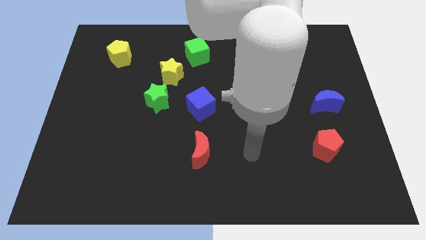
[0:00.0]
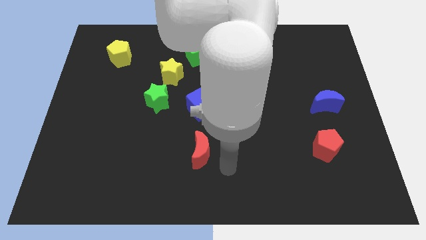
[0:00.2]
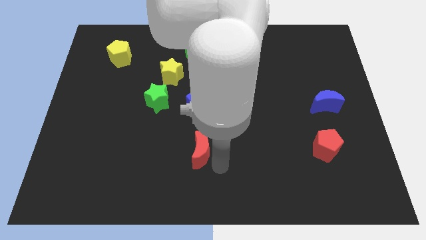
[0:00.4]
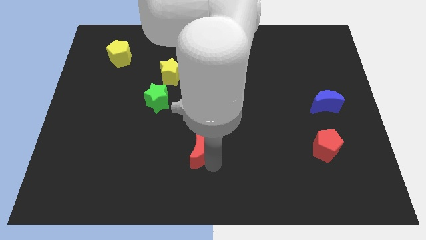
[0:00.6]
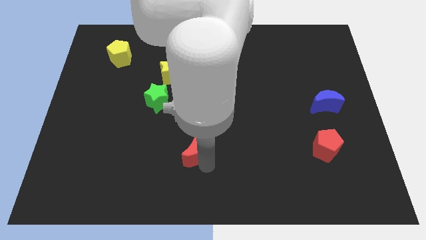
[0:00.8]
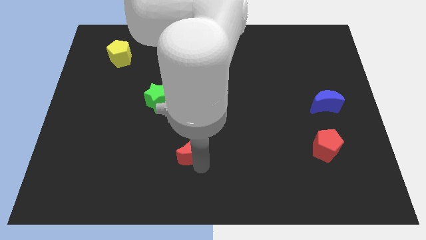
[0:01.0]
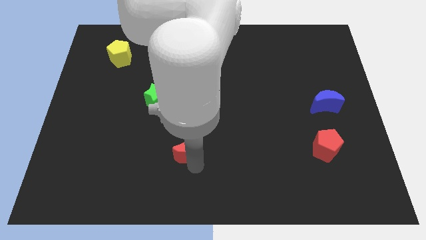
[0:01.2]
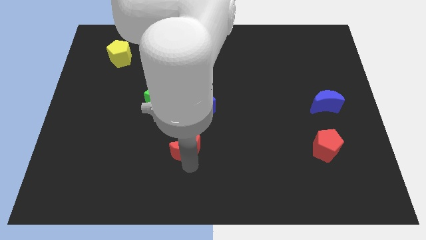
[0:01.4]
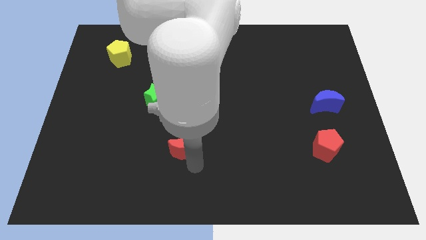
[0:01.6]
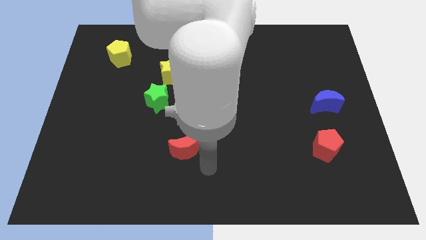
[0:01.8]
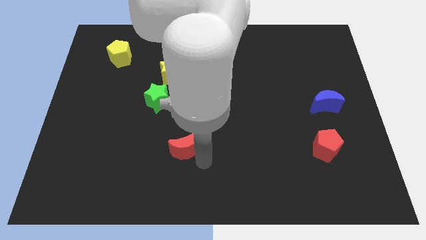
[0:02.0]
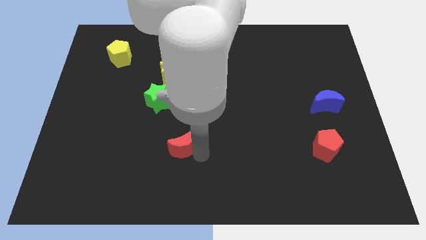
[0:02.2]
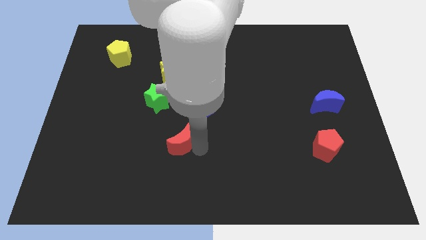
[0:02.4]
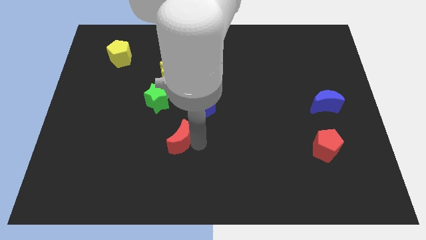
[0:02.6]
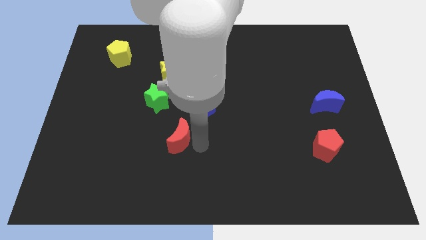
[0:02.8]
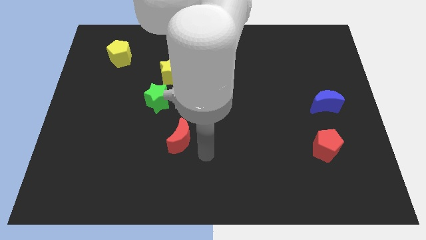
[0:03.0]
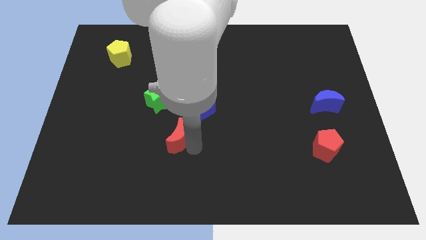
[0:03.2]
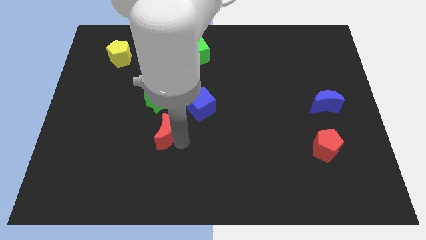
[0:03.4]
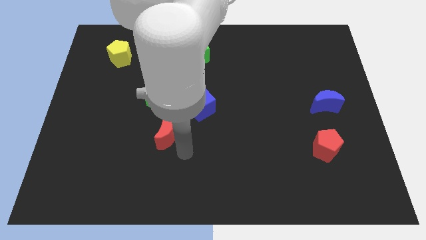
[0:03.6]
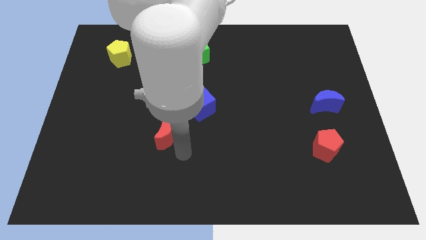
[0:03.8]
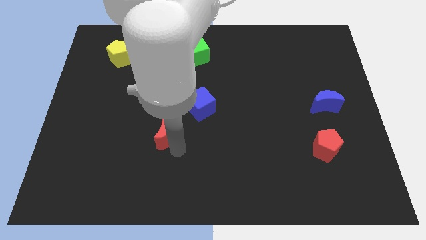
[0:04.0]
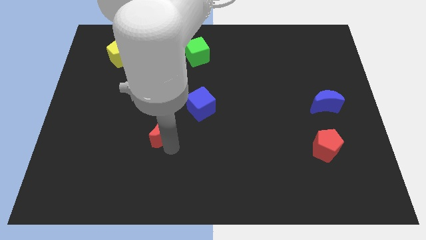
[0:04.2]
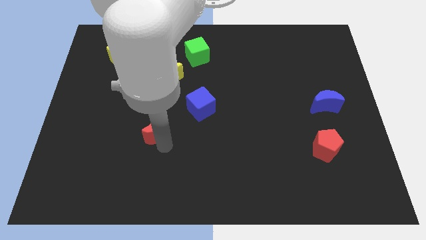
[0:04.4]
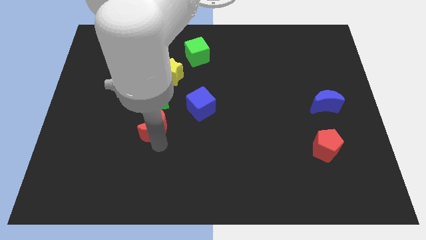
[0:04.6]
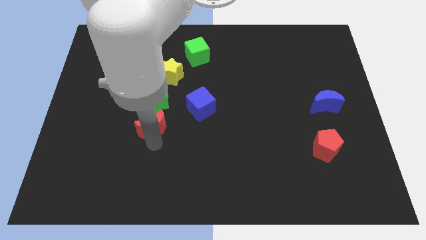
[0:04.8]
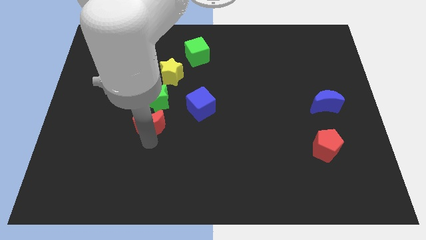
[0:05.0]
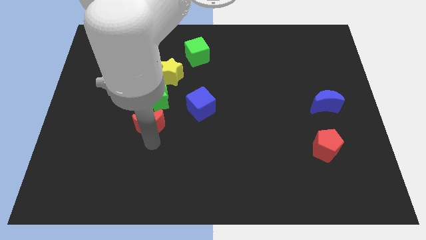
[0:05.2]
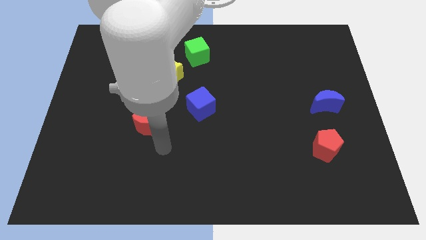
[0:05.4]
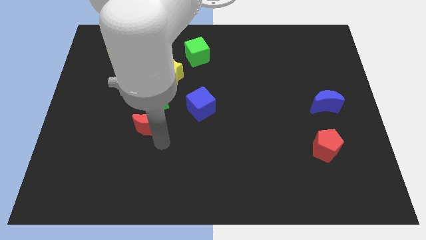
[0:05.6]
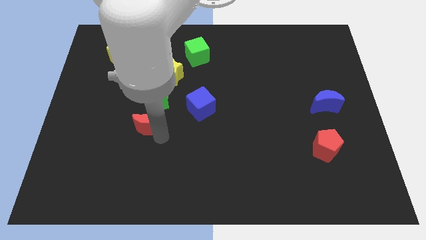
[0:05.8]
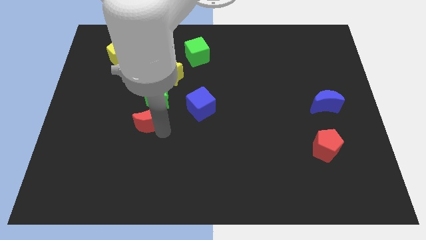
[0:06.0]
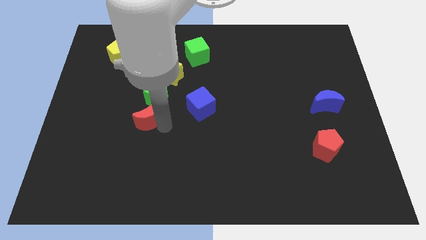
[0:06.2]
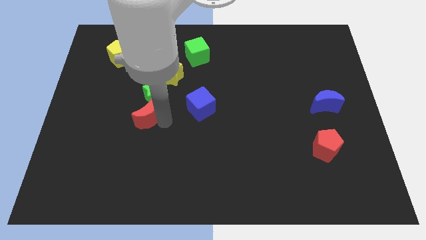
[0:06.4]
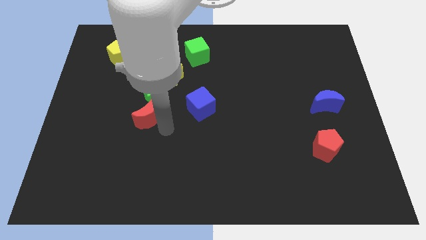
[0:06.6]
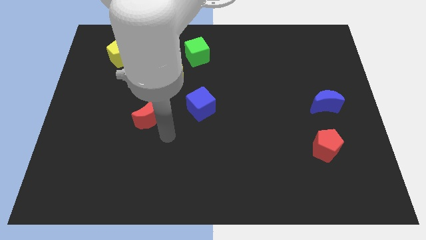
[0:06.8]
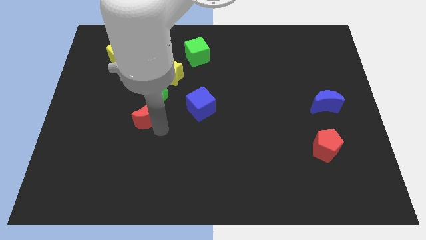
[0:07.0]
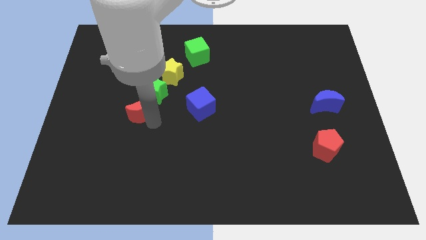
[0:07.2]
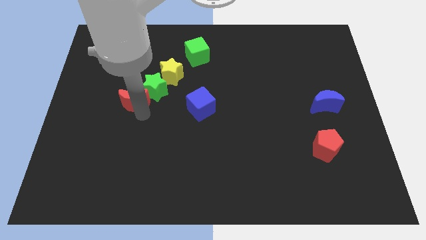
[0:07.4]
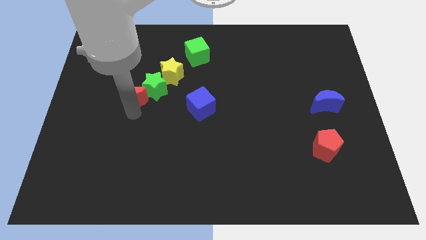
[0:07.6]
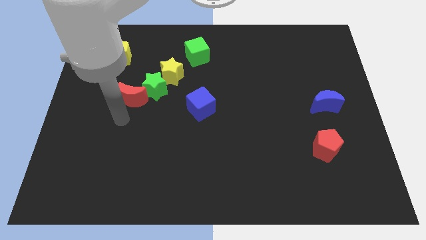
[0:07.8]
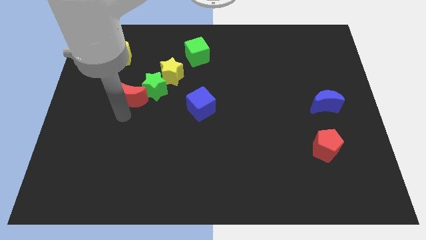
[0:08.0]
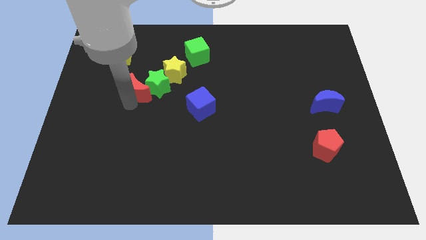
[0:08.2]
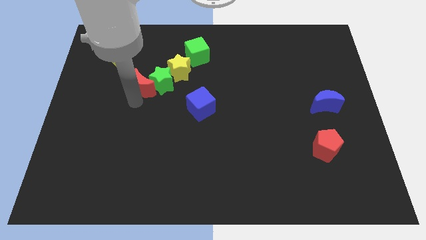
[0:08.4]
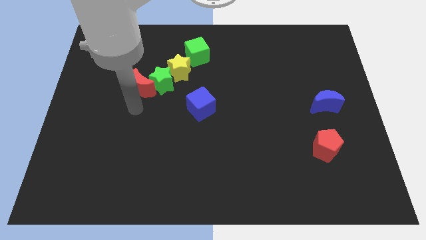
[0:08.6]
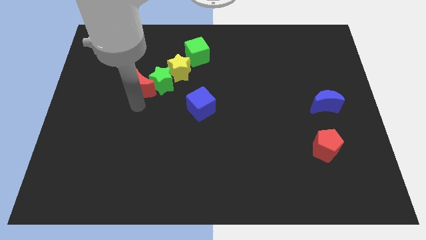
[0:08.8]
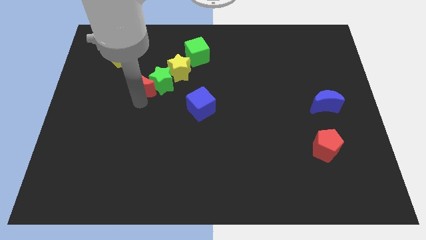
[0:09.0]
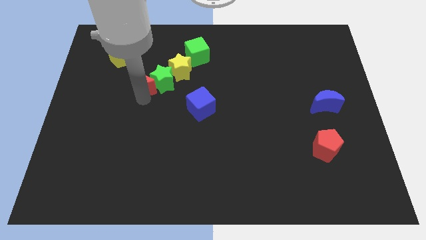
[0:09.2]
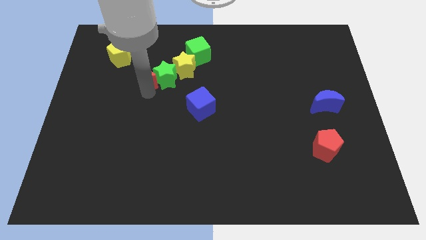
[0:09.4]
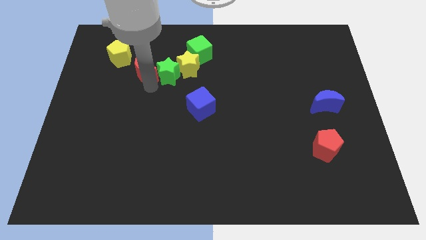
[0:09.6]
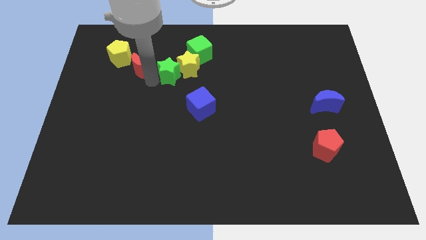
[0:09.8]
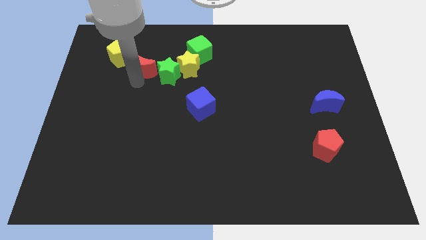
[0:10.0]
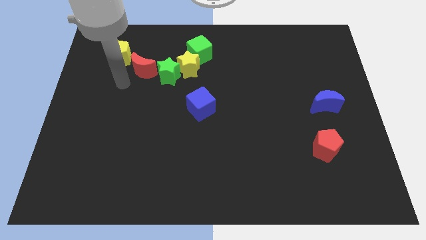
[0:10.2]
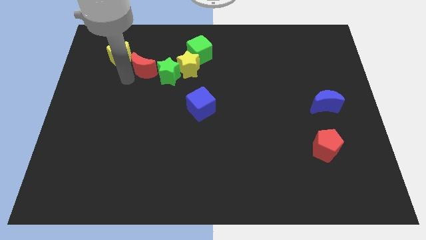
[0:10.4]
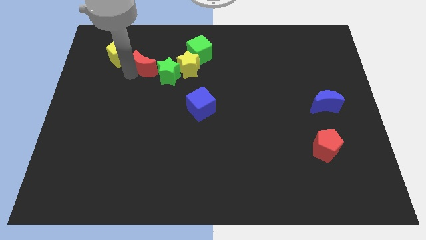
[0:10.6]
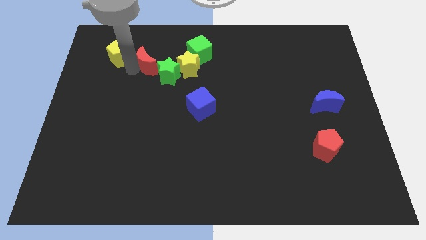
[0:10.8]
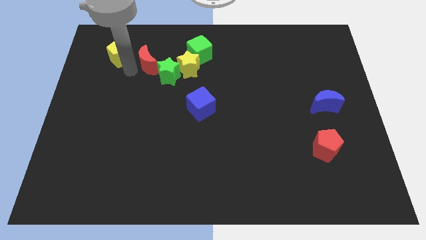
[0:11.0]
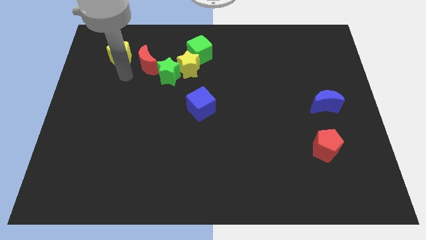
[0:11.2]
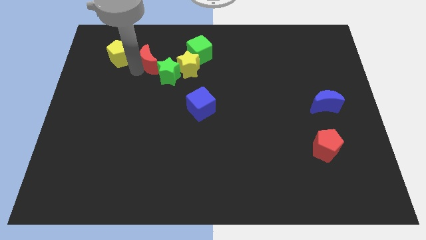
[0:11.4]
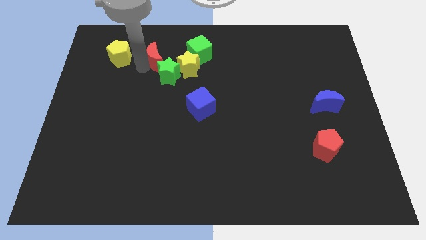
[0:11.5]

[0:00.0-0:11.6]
slide the red moon to the top left of the yellow star
